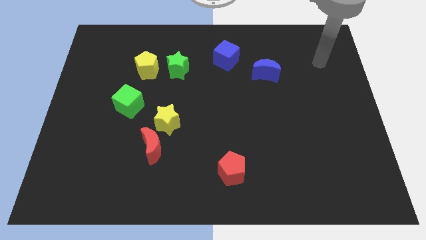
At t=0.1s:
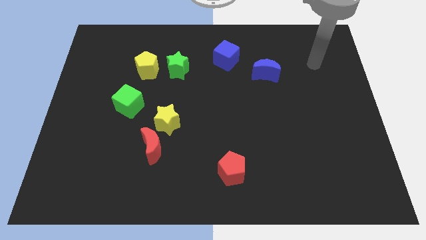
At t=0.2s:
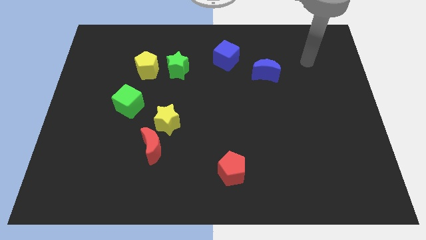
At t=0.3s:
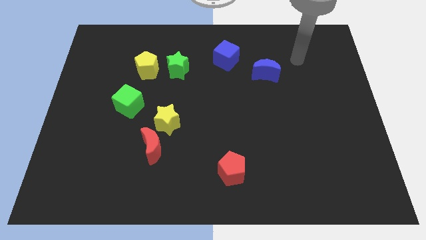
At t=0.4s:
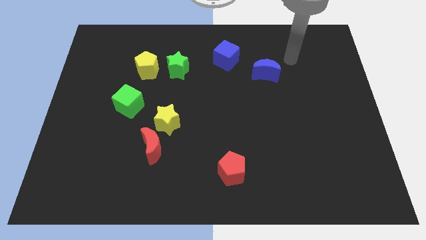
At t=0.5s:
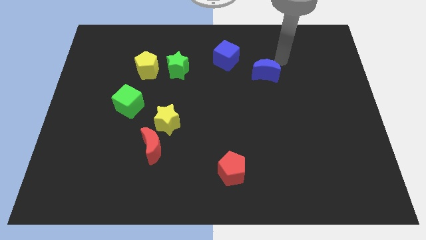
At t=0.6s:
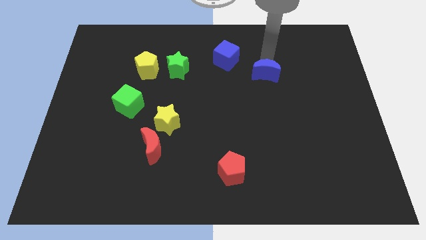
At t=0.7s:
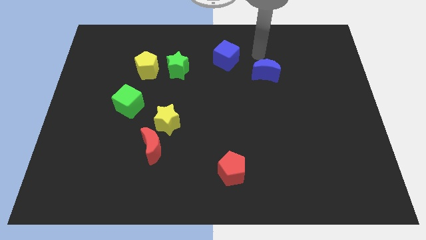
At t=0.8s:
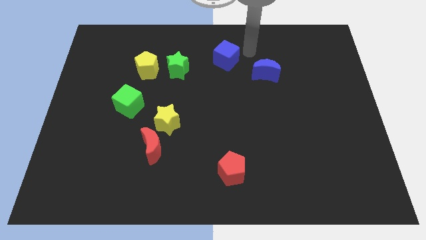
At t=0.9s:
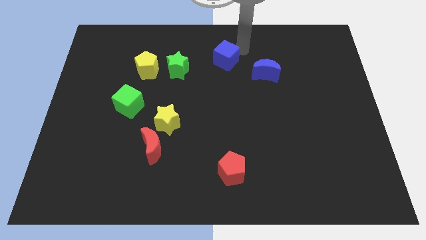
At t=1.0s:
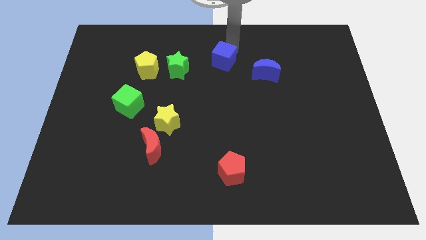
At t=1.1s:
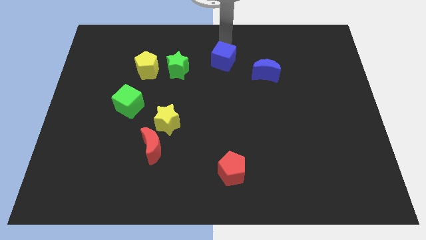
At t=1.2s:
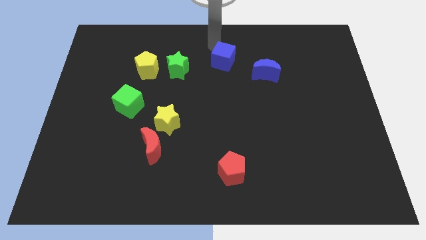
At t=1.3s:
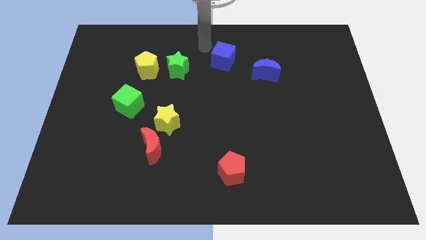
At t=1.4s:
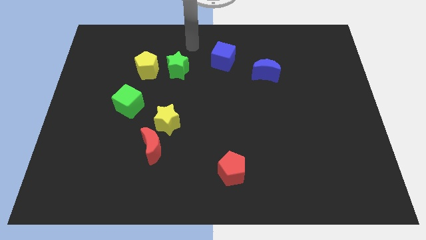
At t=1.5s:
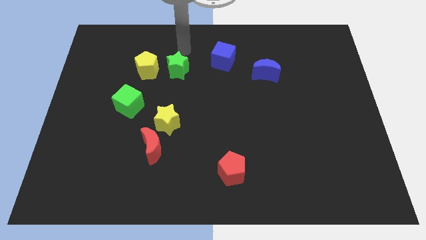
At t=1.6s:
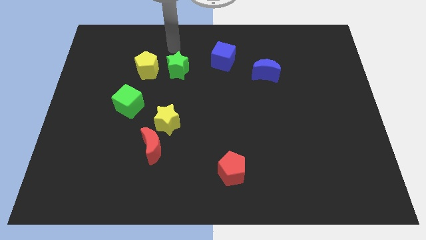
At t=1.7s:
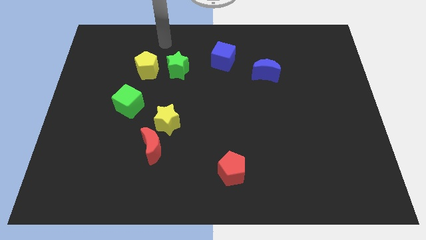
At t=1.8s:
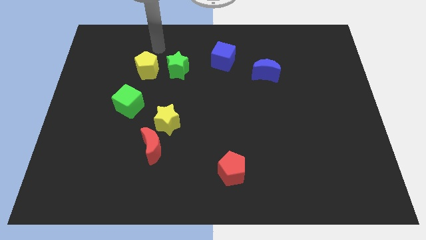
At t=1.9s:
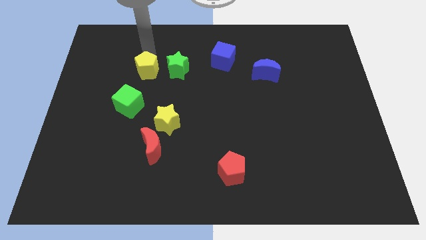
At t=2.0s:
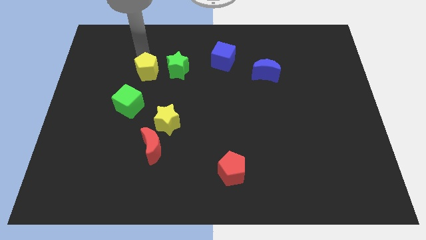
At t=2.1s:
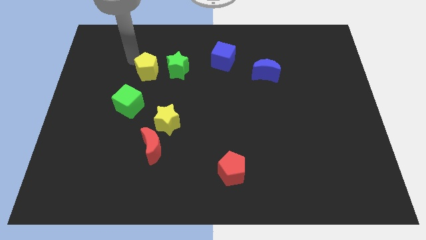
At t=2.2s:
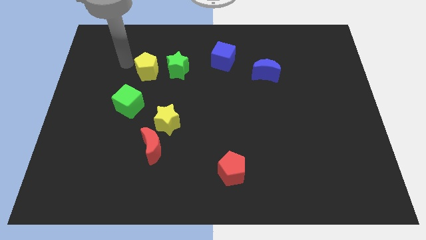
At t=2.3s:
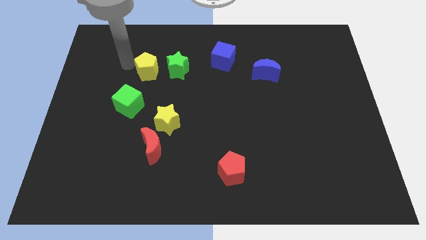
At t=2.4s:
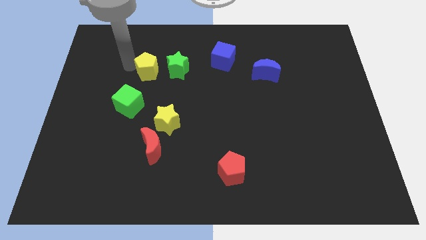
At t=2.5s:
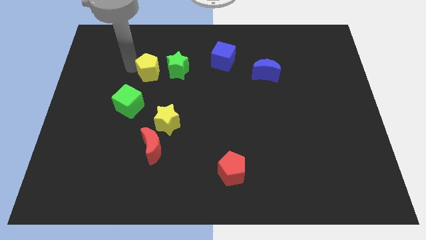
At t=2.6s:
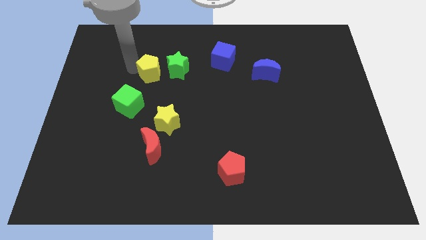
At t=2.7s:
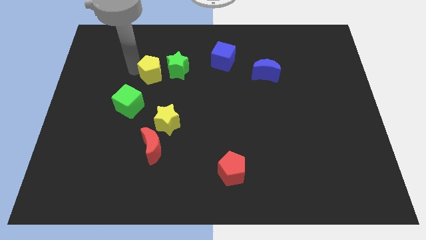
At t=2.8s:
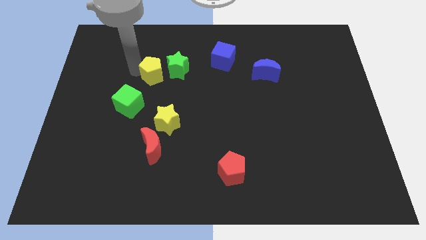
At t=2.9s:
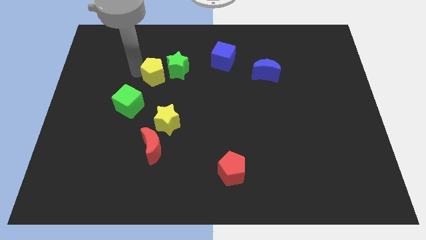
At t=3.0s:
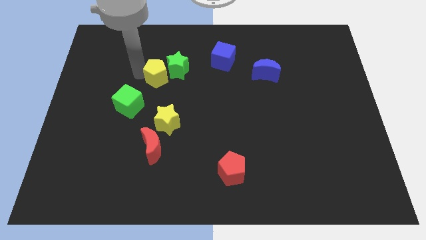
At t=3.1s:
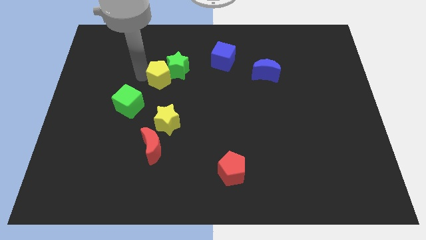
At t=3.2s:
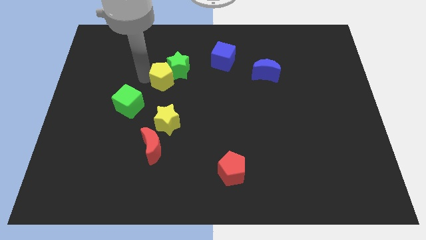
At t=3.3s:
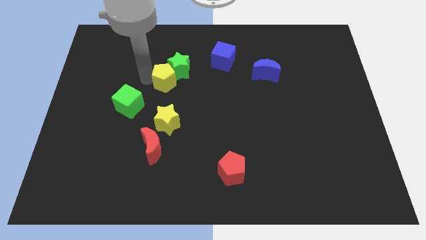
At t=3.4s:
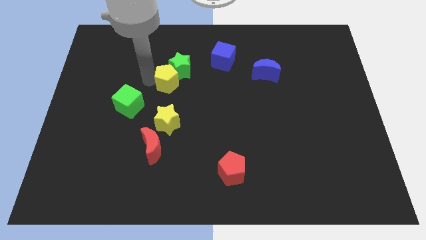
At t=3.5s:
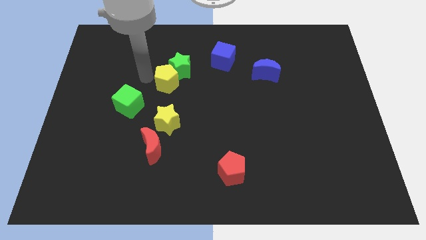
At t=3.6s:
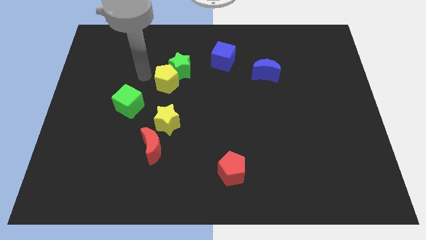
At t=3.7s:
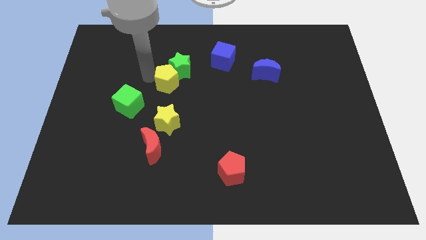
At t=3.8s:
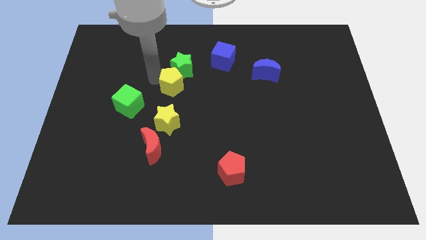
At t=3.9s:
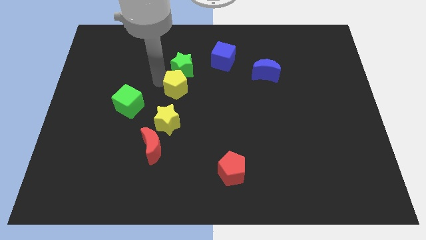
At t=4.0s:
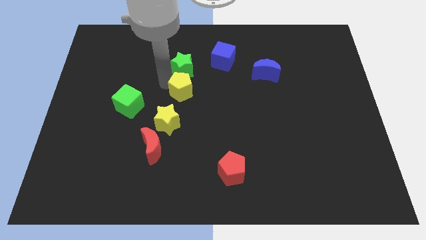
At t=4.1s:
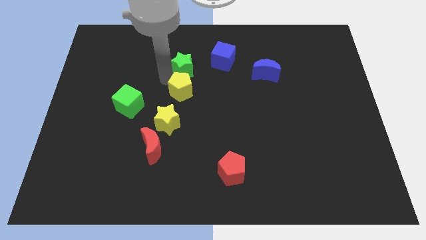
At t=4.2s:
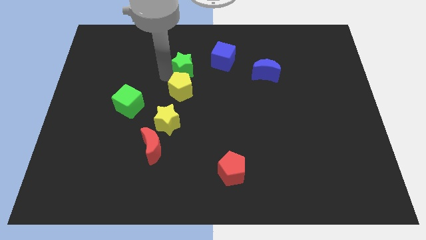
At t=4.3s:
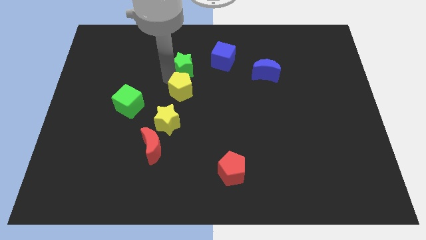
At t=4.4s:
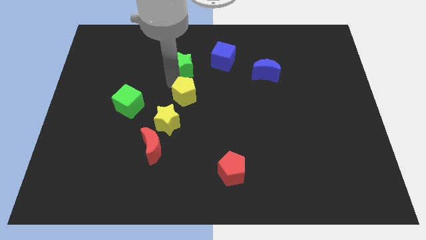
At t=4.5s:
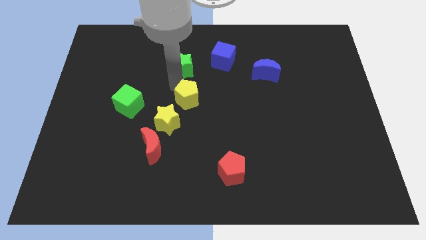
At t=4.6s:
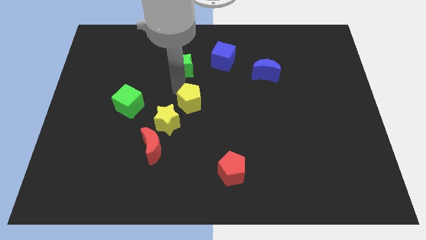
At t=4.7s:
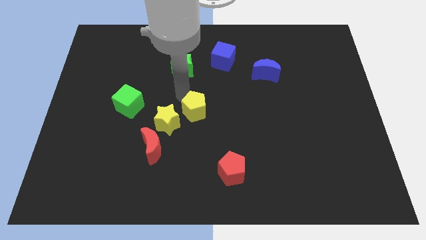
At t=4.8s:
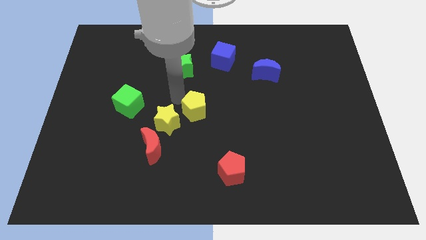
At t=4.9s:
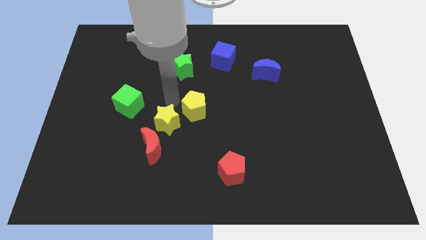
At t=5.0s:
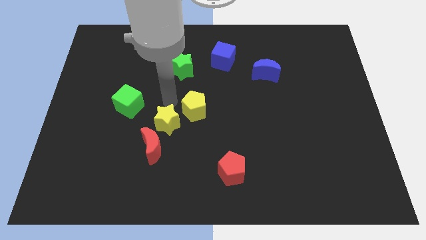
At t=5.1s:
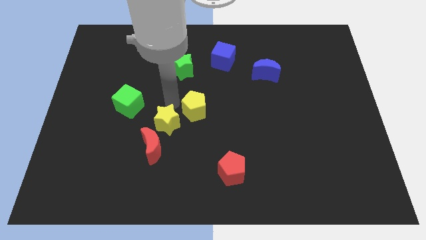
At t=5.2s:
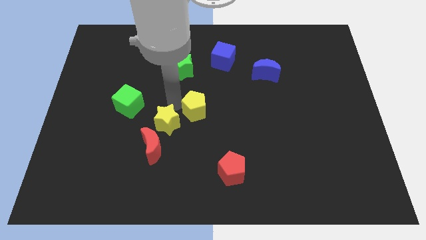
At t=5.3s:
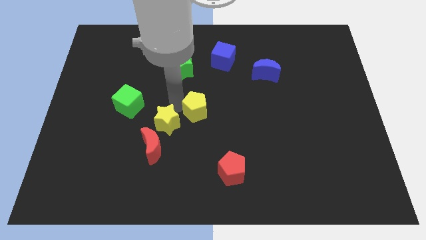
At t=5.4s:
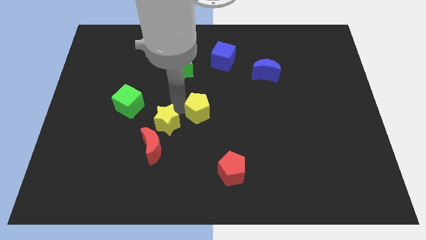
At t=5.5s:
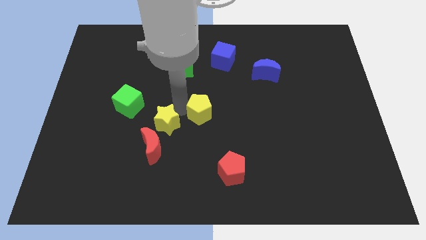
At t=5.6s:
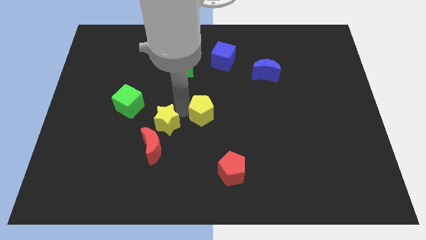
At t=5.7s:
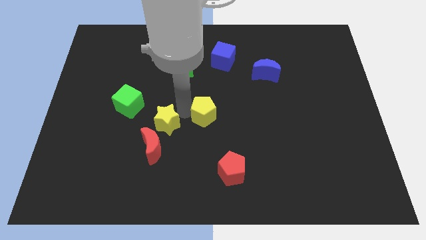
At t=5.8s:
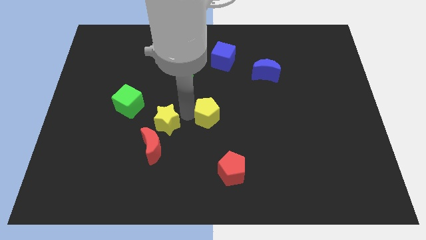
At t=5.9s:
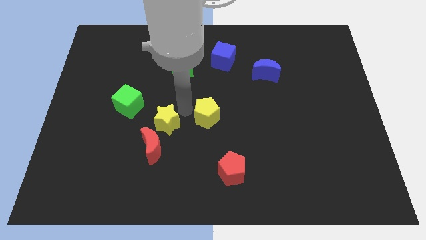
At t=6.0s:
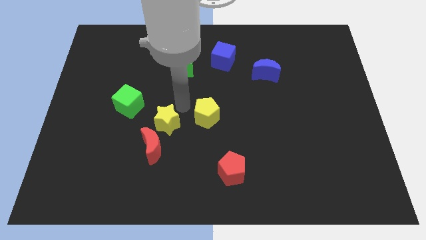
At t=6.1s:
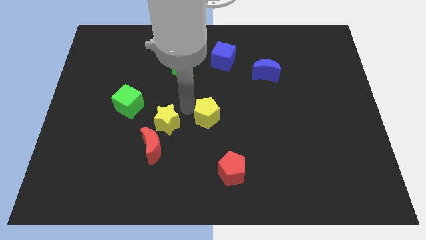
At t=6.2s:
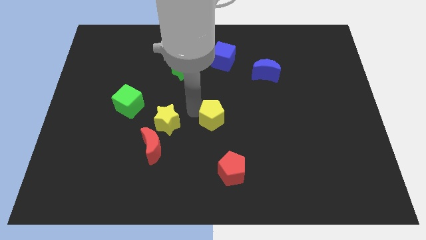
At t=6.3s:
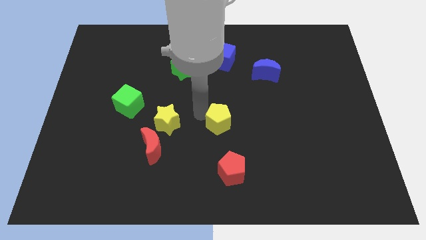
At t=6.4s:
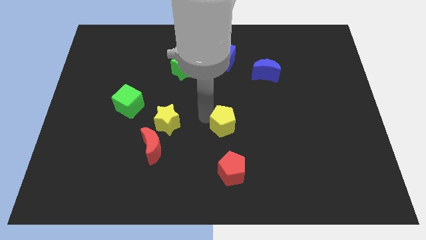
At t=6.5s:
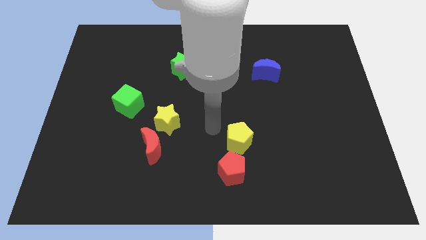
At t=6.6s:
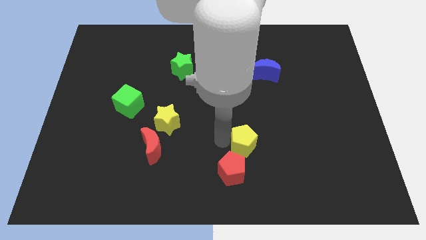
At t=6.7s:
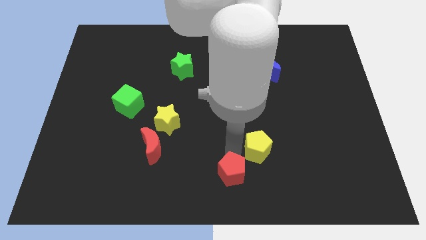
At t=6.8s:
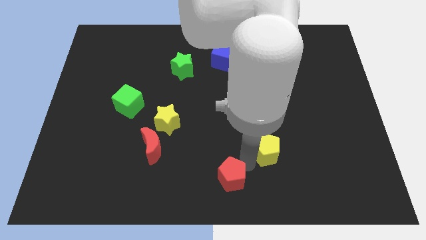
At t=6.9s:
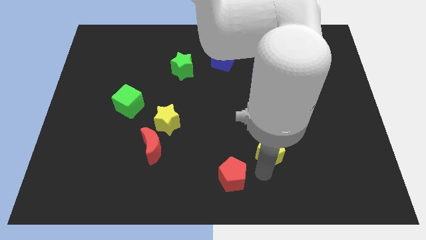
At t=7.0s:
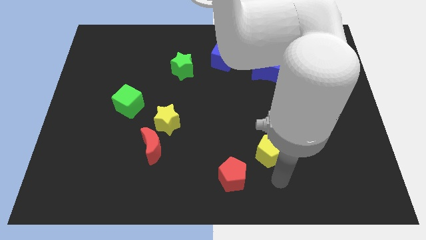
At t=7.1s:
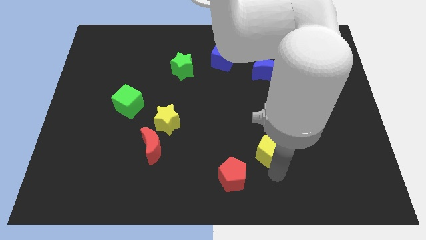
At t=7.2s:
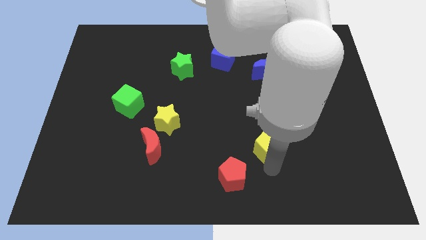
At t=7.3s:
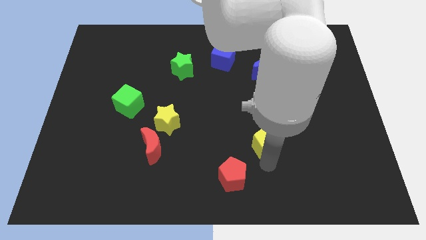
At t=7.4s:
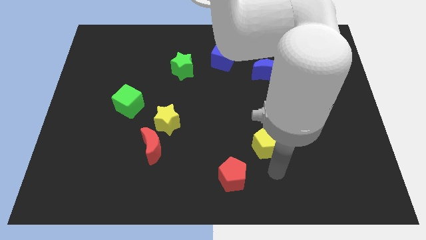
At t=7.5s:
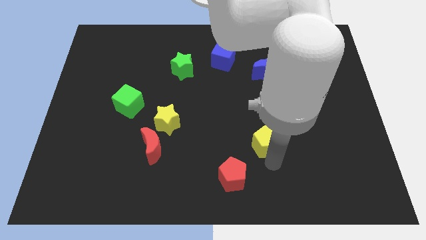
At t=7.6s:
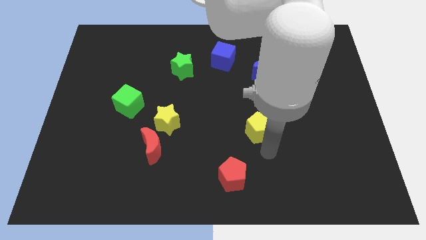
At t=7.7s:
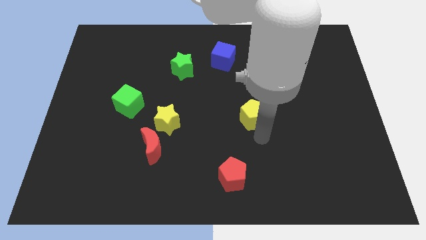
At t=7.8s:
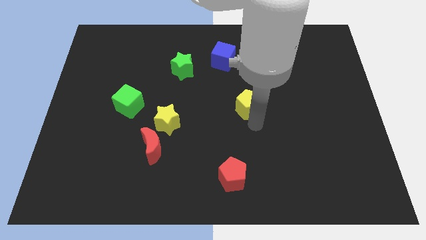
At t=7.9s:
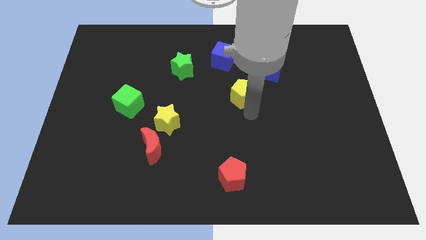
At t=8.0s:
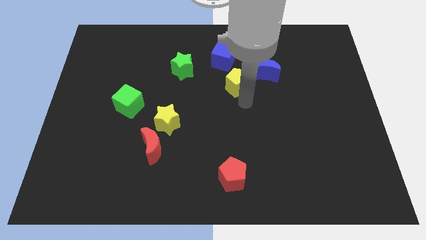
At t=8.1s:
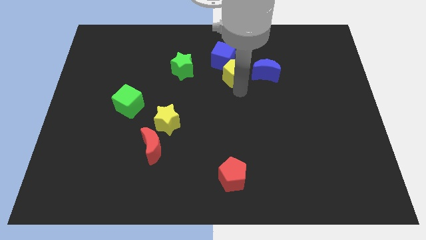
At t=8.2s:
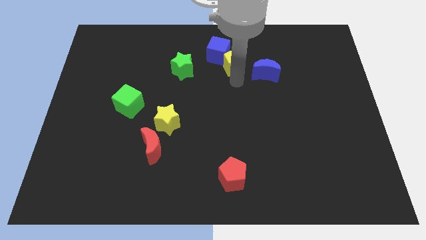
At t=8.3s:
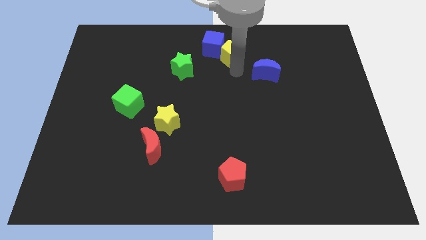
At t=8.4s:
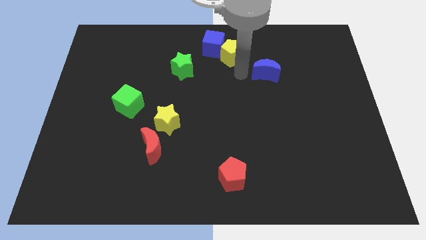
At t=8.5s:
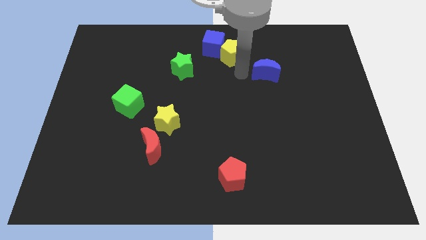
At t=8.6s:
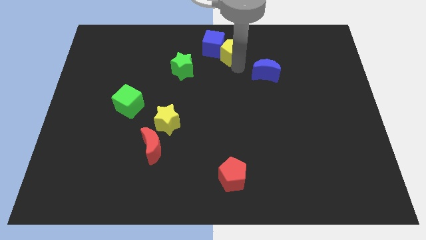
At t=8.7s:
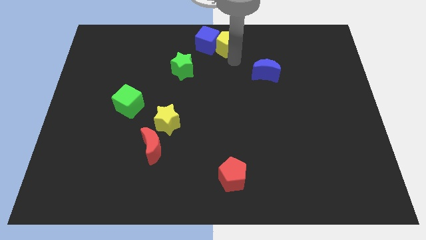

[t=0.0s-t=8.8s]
push the yellow pentagon to the top
